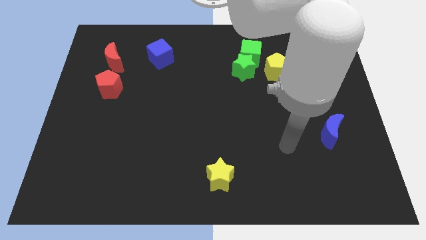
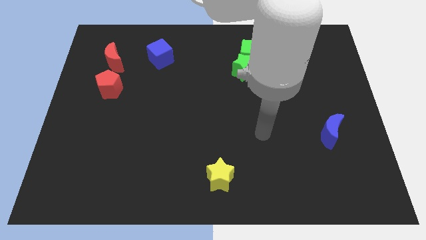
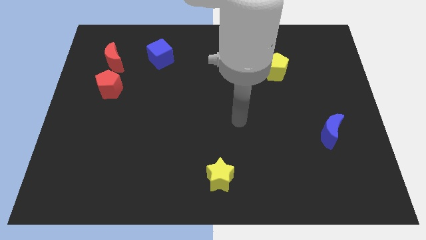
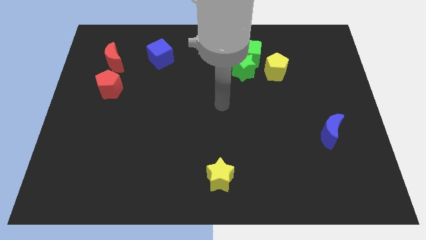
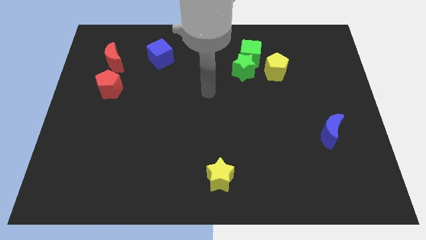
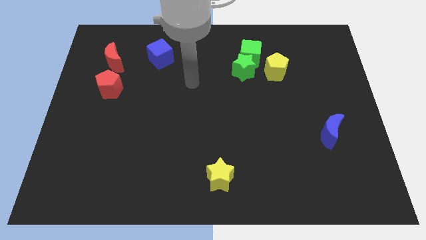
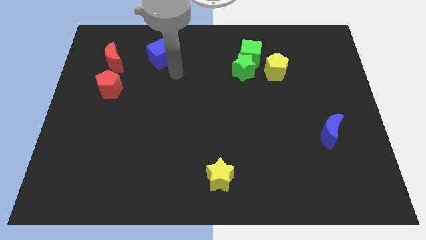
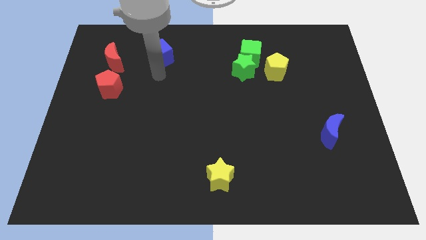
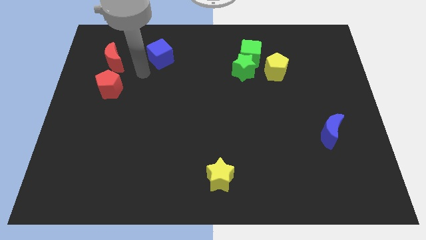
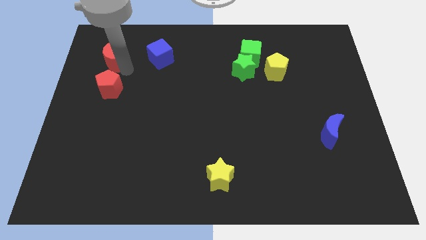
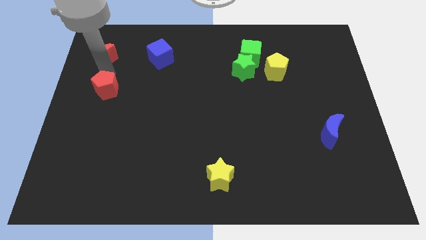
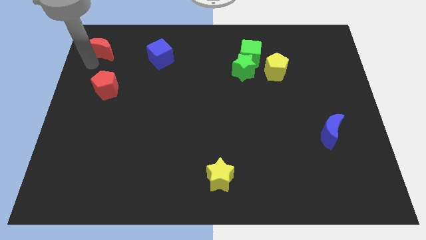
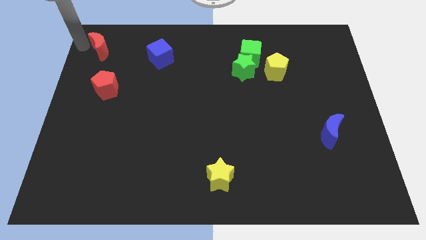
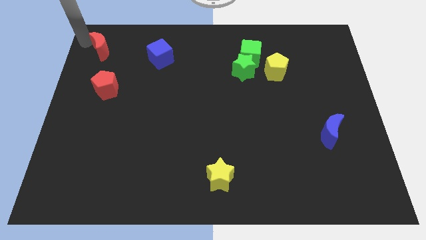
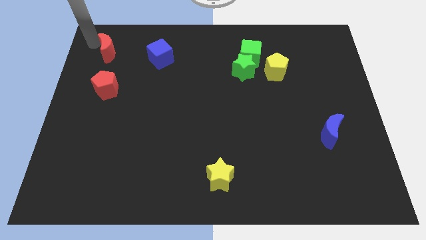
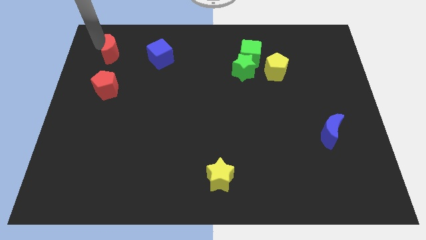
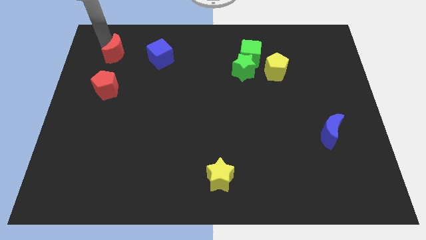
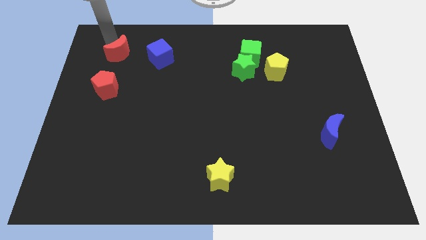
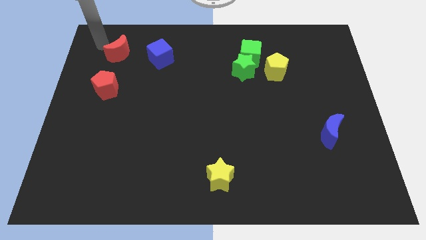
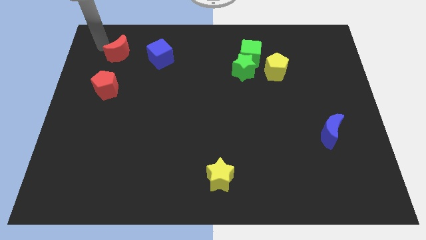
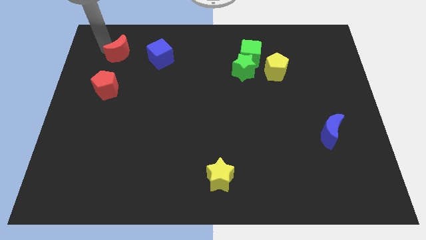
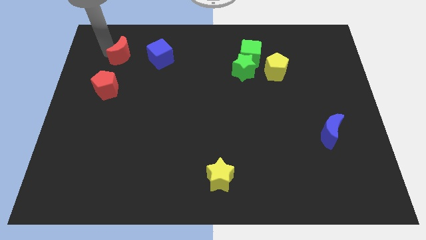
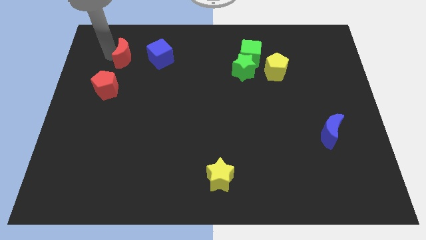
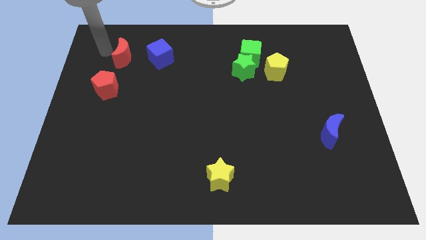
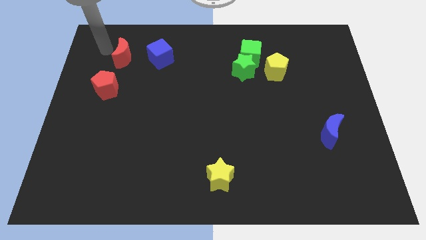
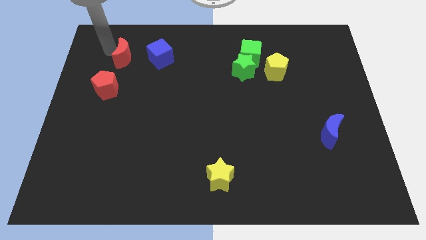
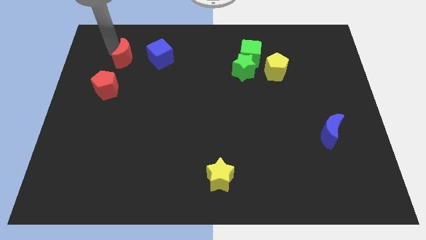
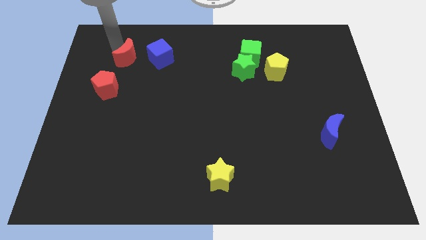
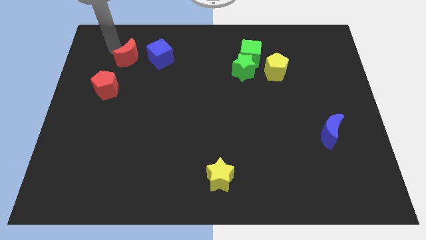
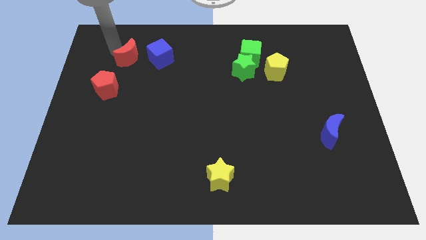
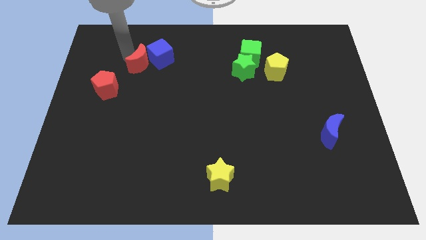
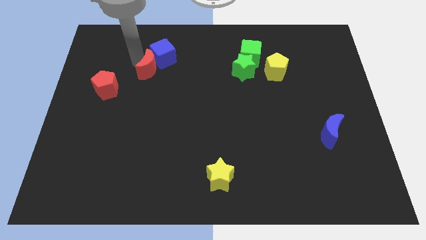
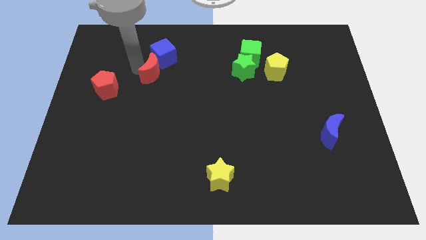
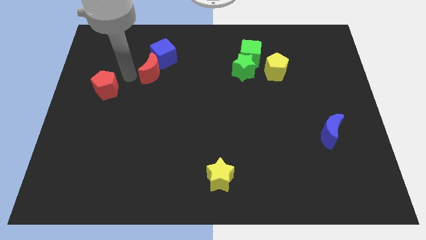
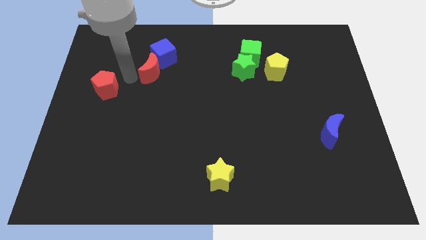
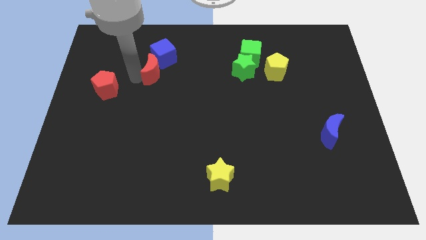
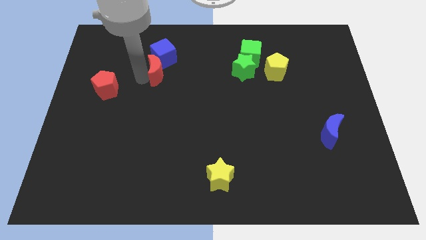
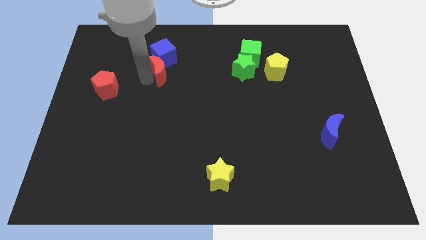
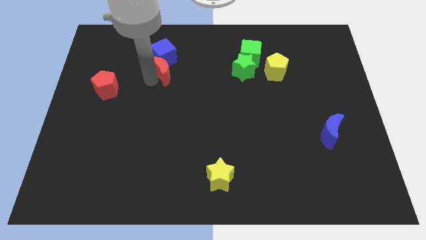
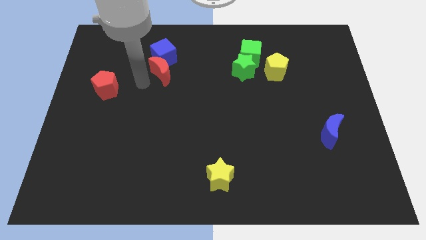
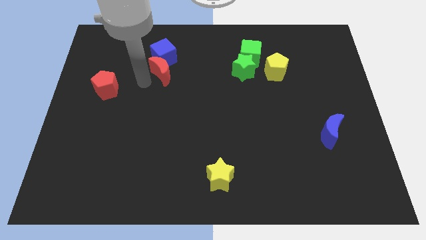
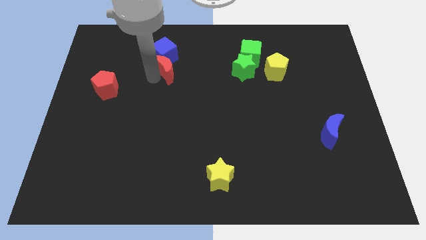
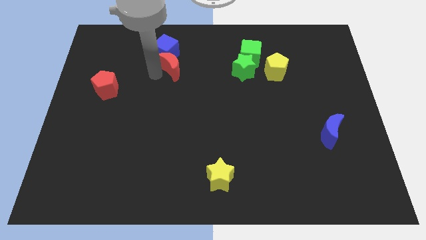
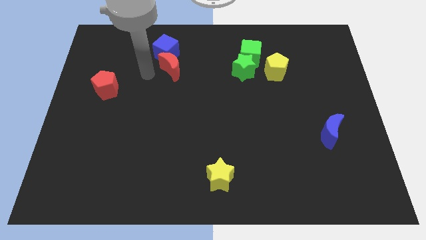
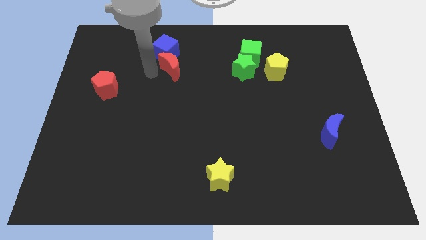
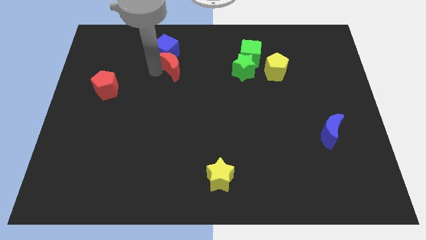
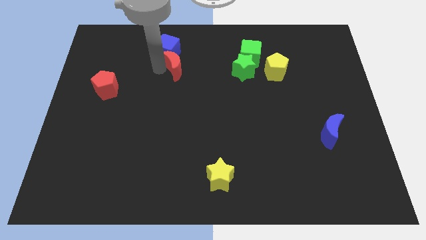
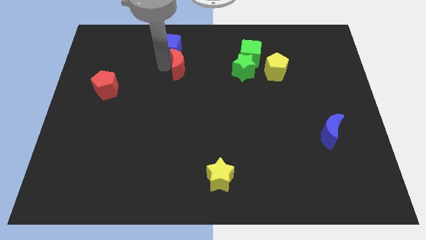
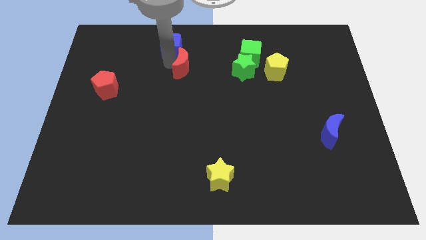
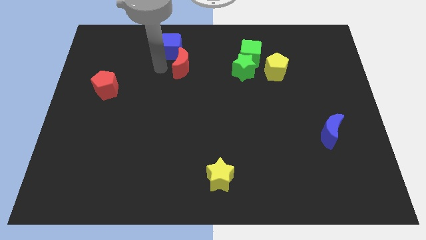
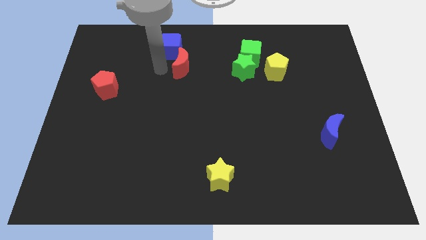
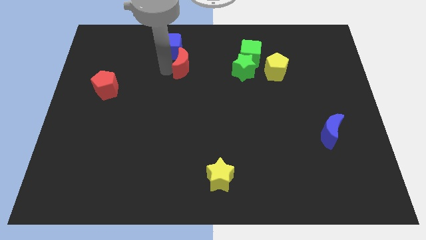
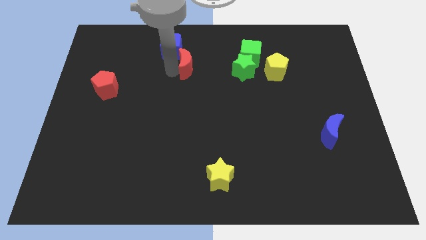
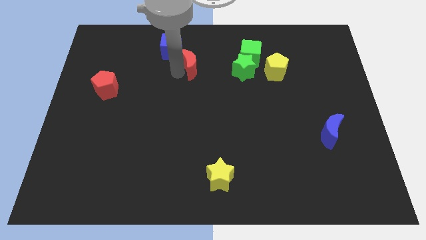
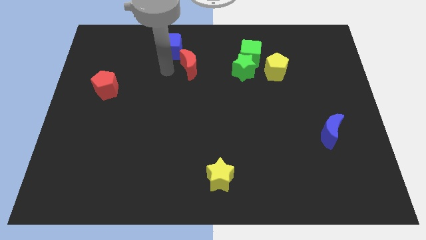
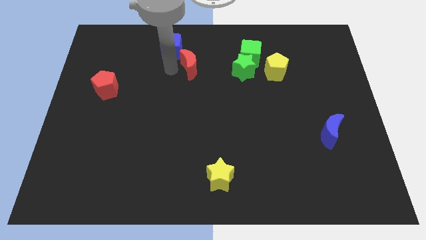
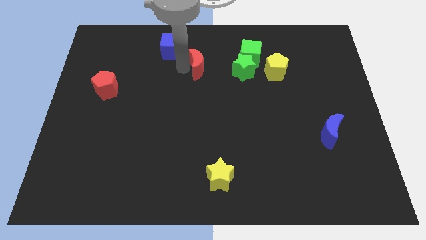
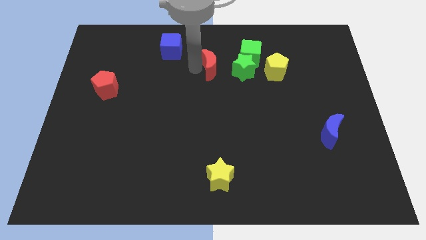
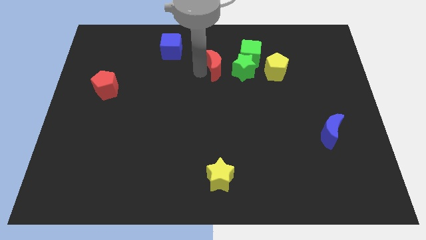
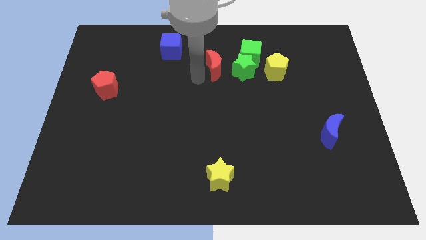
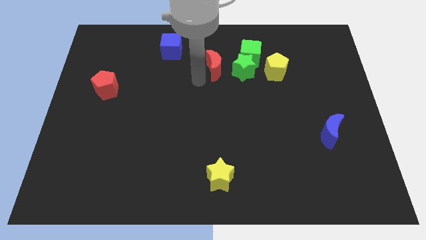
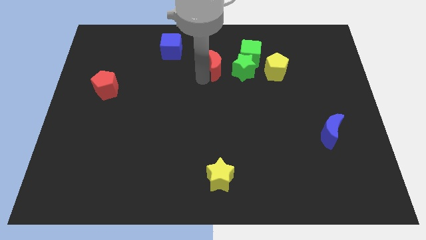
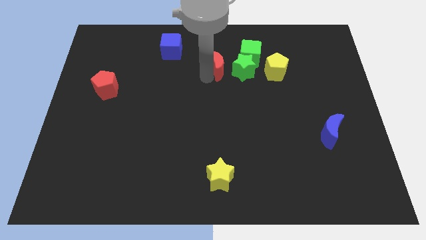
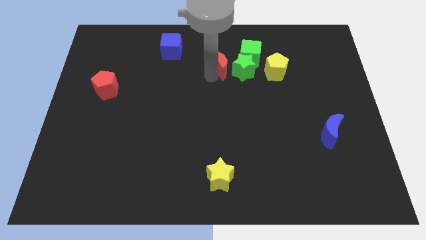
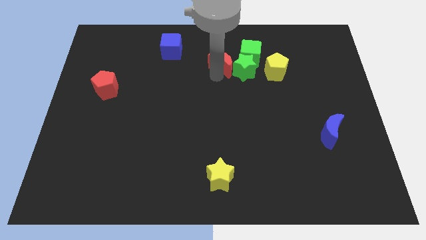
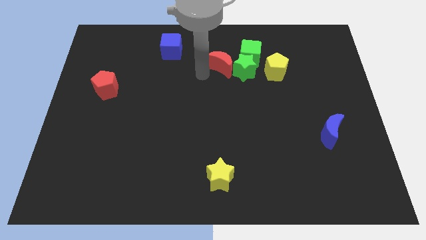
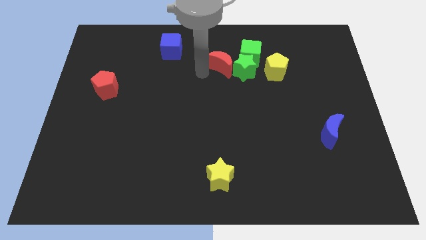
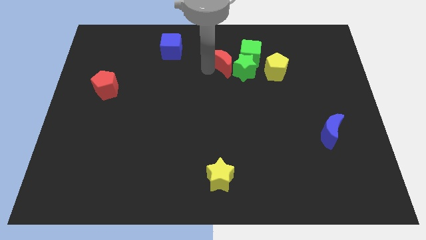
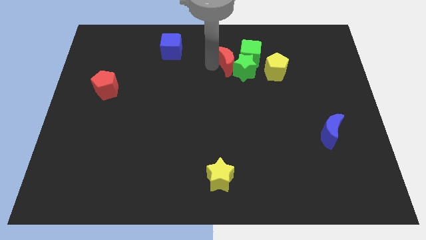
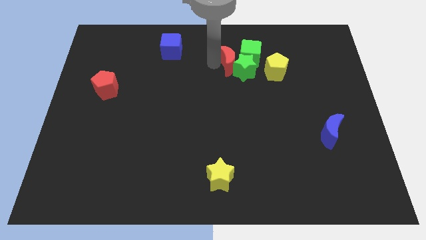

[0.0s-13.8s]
move the red moon towards the green cube

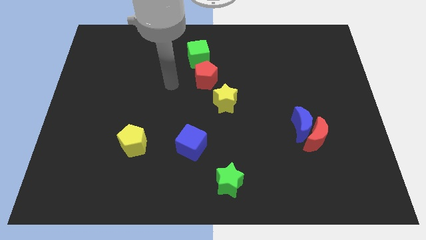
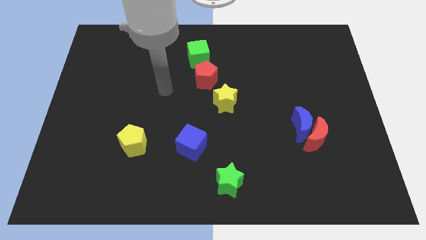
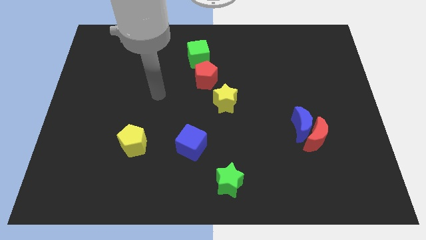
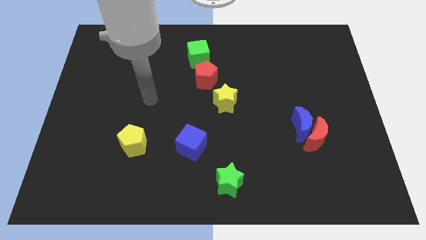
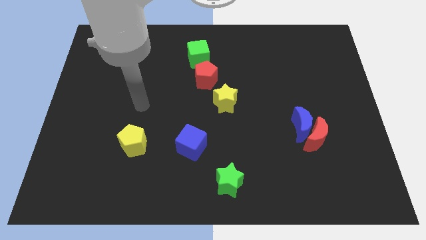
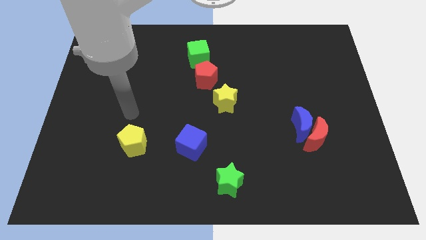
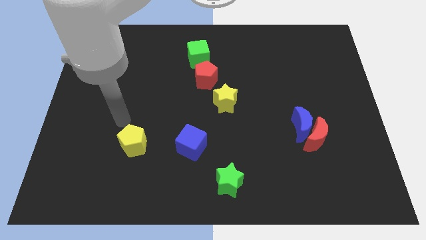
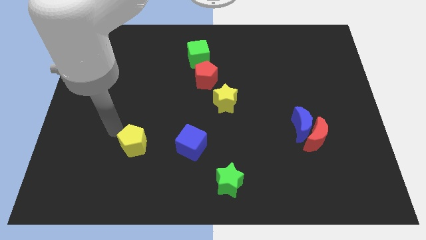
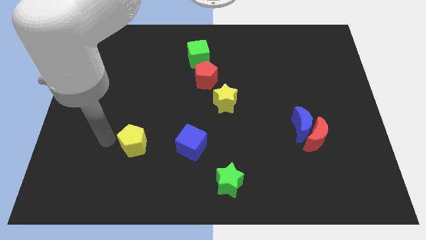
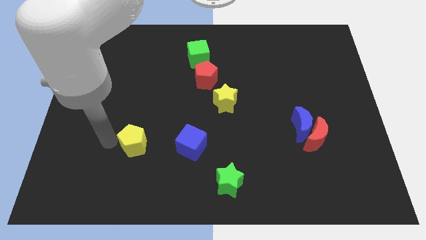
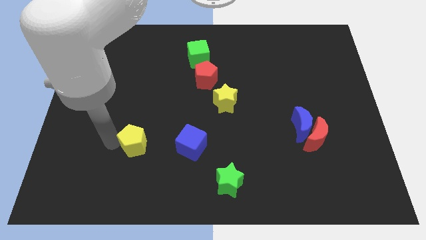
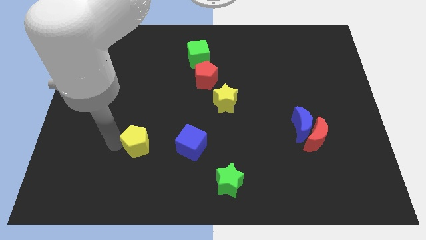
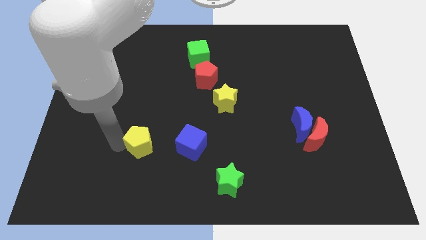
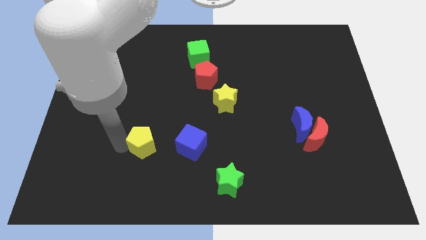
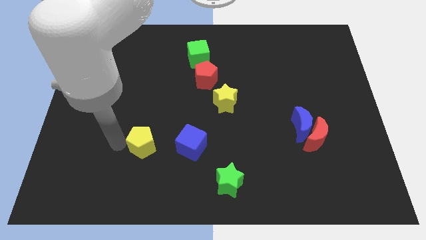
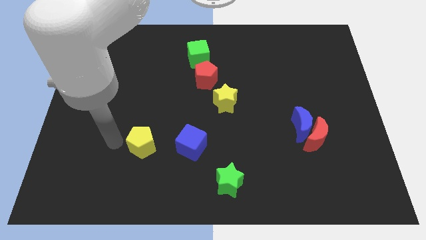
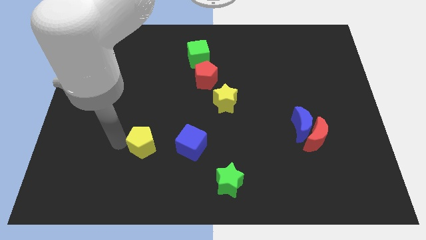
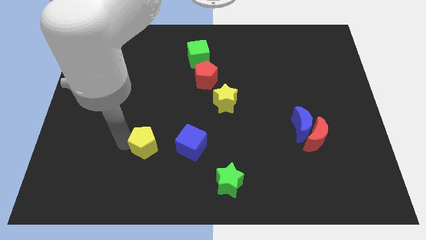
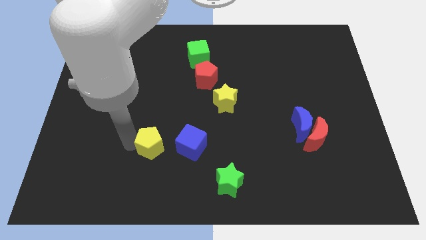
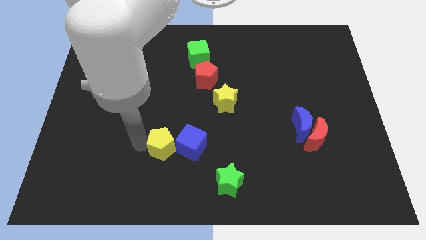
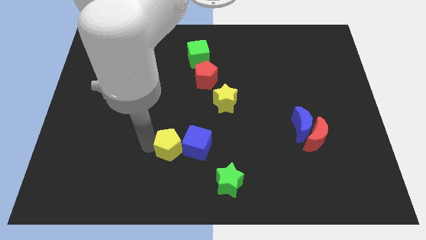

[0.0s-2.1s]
slide the yellow pentagon next to the blue cube
